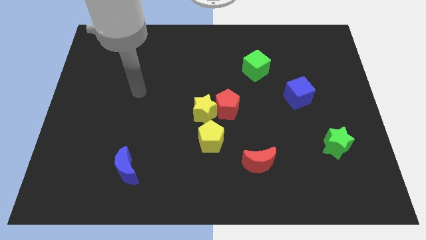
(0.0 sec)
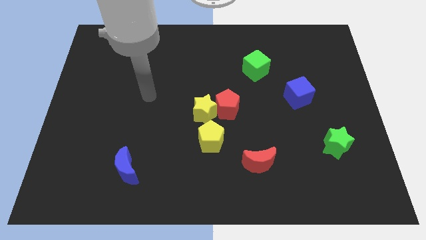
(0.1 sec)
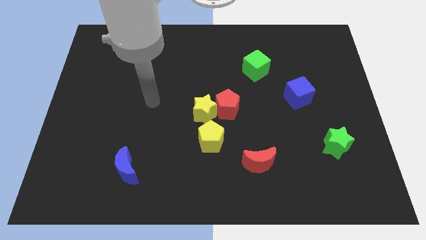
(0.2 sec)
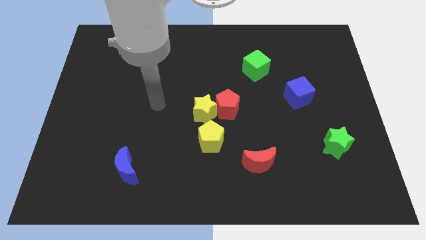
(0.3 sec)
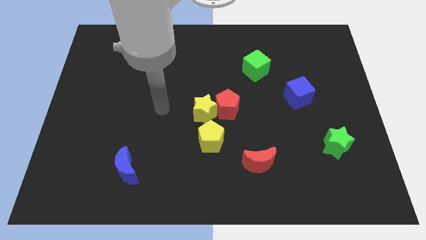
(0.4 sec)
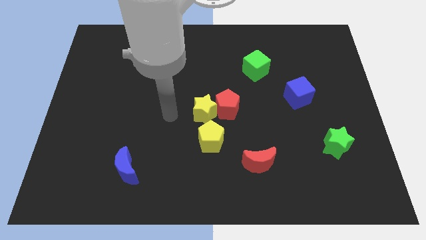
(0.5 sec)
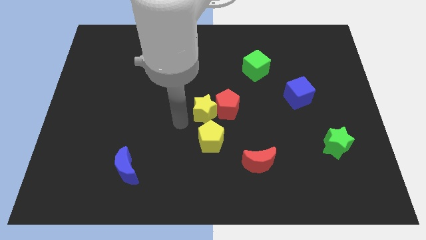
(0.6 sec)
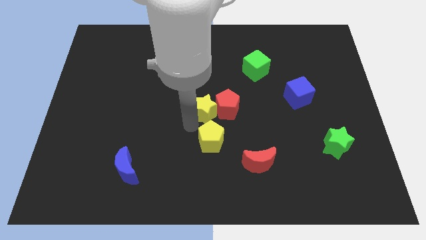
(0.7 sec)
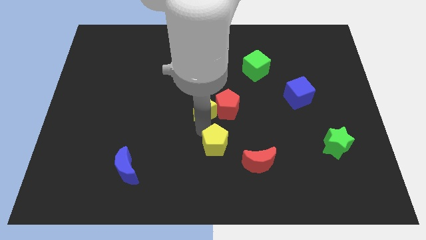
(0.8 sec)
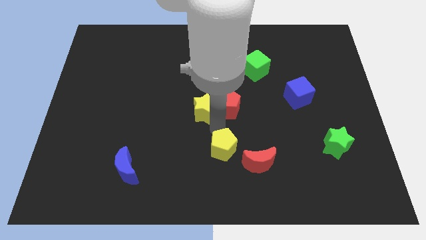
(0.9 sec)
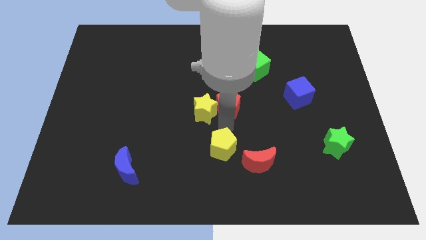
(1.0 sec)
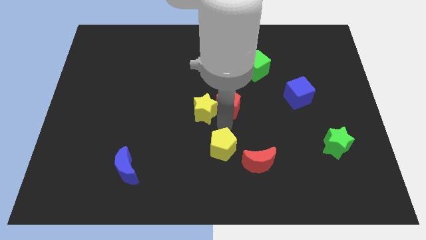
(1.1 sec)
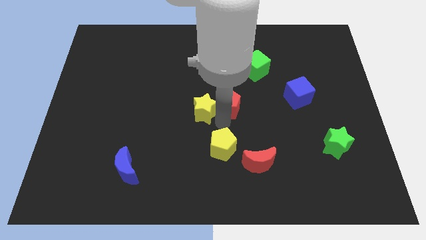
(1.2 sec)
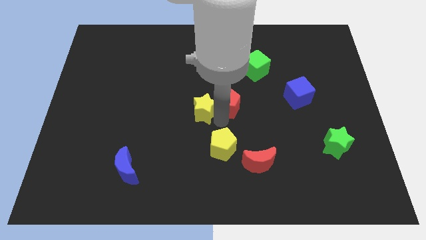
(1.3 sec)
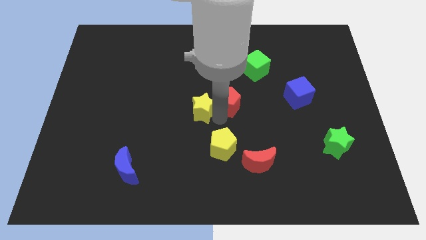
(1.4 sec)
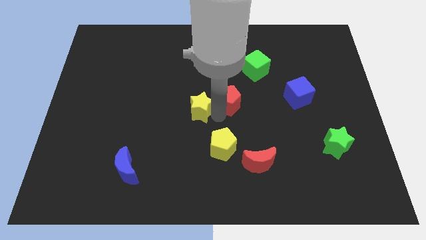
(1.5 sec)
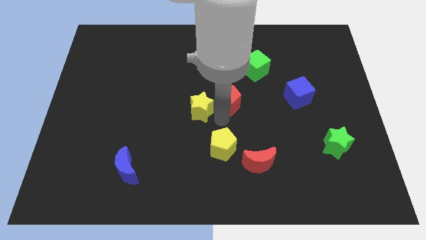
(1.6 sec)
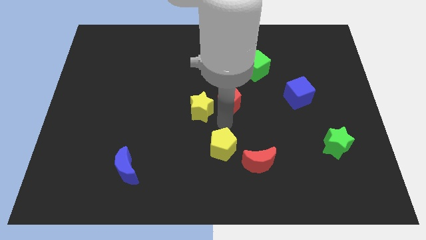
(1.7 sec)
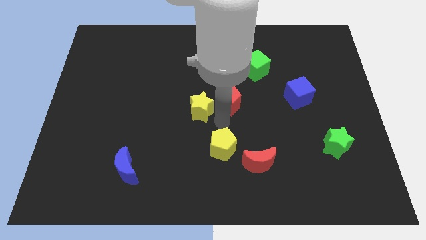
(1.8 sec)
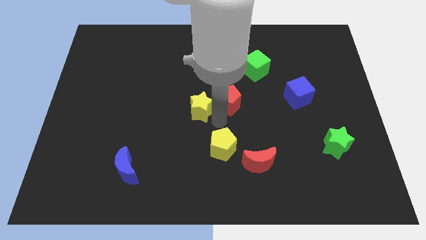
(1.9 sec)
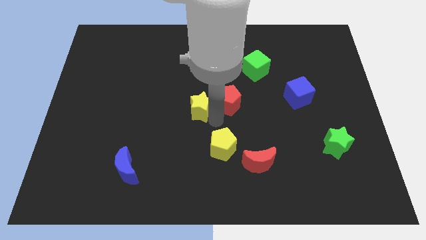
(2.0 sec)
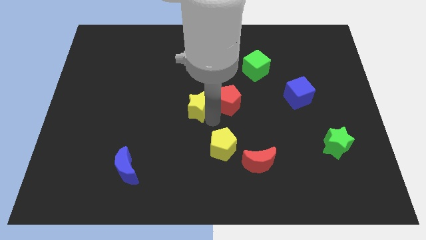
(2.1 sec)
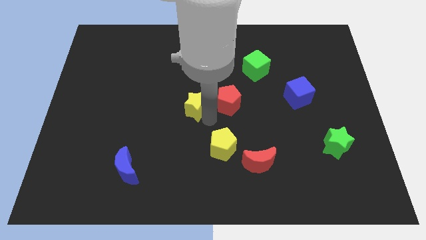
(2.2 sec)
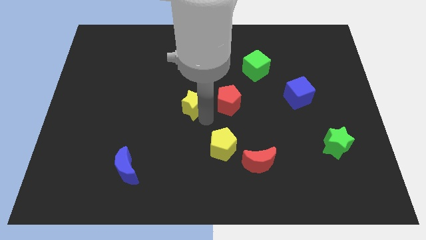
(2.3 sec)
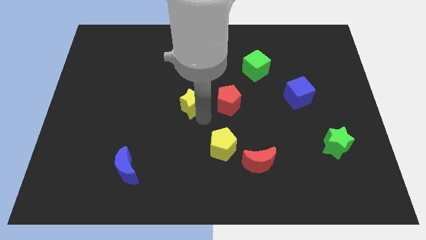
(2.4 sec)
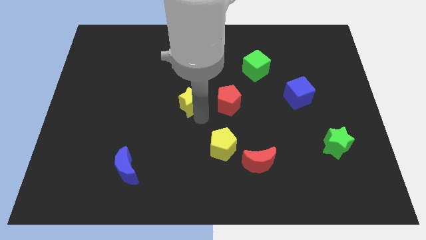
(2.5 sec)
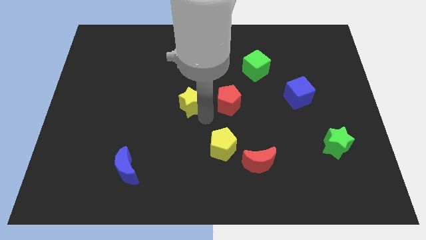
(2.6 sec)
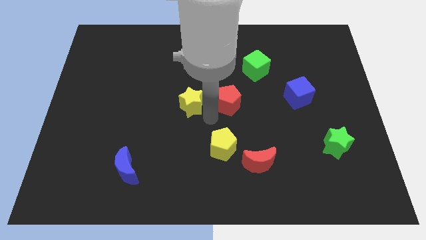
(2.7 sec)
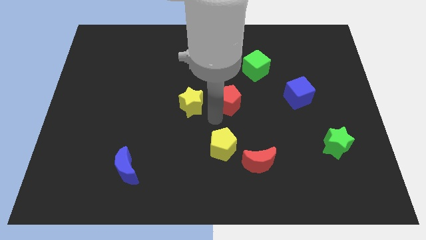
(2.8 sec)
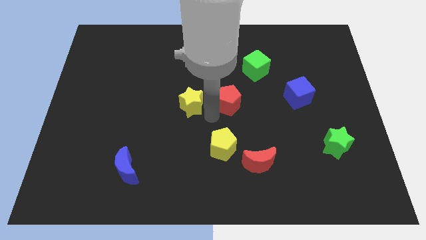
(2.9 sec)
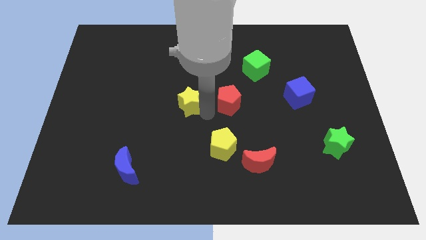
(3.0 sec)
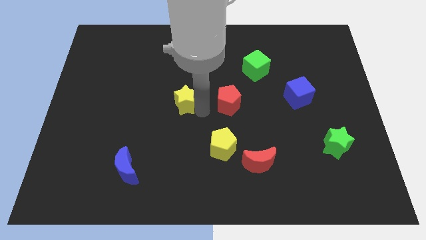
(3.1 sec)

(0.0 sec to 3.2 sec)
separate the yellow star from the red pentagon and yellow pentagon

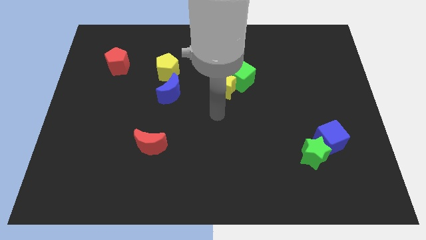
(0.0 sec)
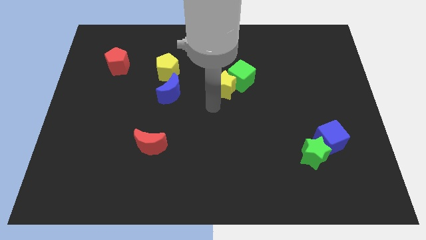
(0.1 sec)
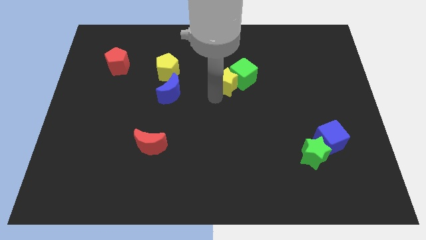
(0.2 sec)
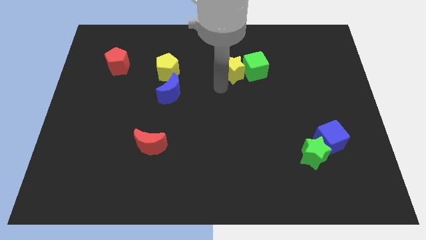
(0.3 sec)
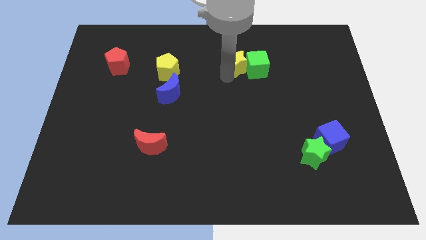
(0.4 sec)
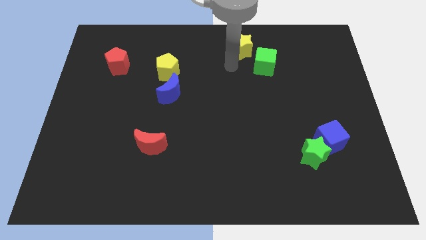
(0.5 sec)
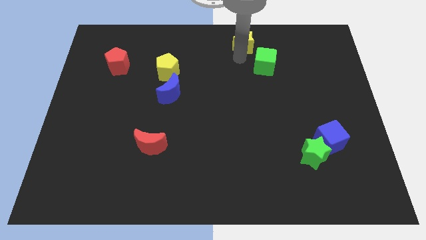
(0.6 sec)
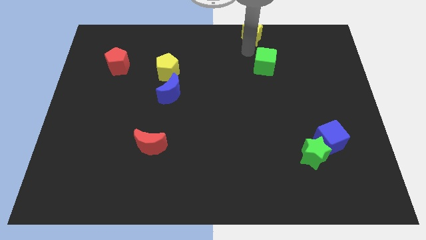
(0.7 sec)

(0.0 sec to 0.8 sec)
move the green cube away from the yellow star

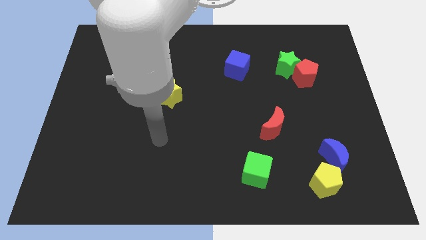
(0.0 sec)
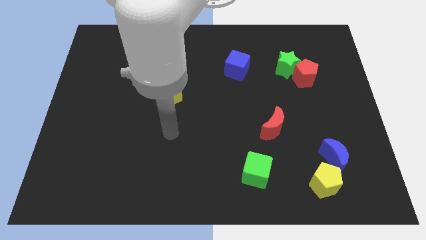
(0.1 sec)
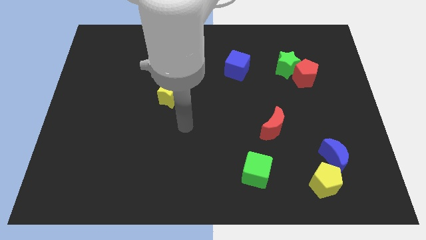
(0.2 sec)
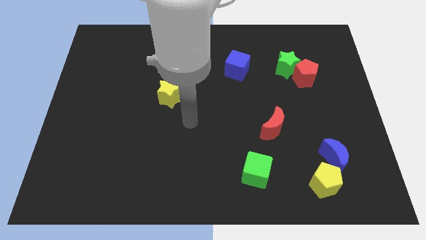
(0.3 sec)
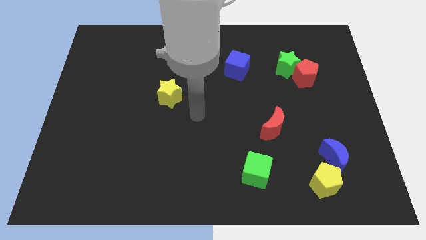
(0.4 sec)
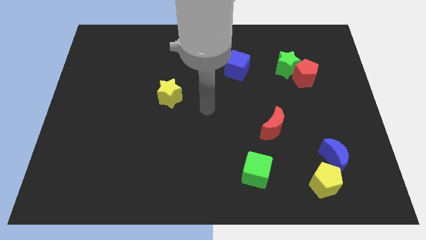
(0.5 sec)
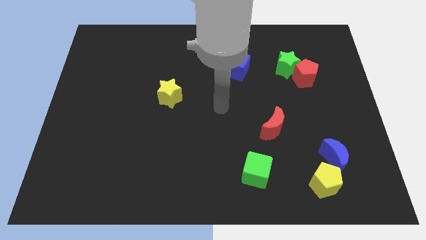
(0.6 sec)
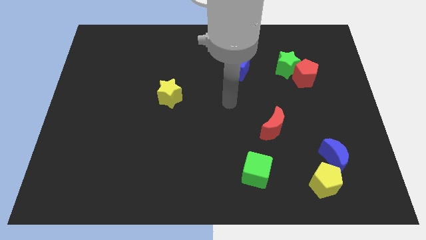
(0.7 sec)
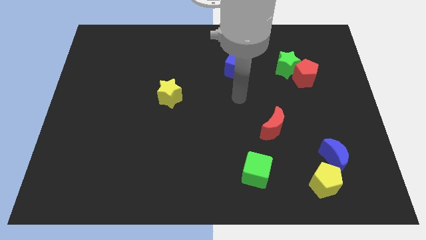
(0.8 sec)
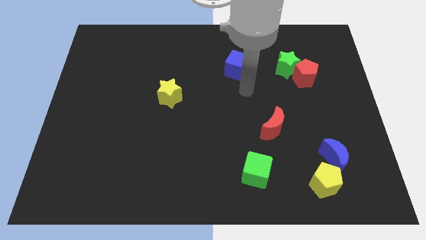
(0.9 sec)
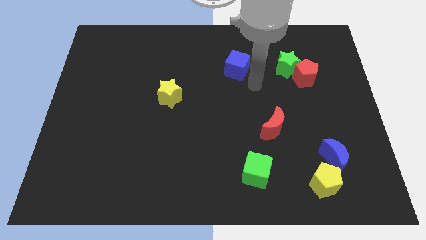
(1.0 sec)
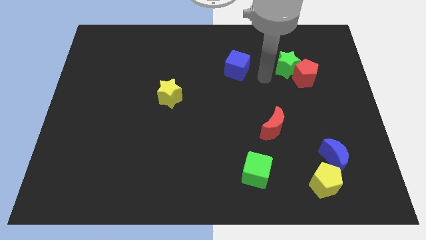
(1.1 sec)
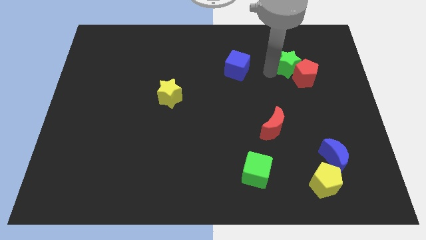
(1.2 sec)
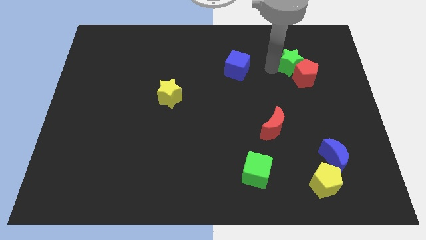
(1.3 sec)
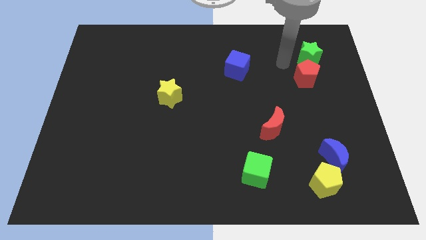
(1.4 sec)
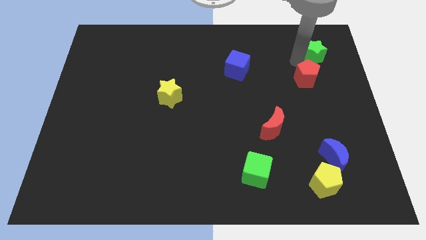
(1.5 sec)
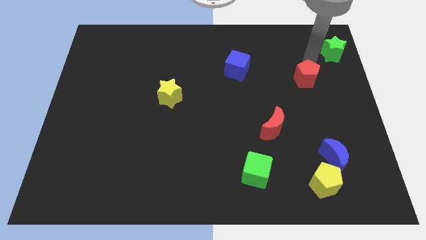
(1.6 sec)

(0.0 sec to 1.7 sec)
pull the red pentagon apart from the green star

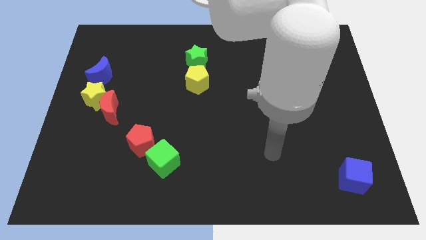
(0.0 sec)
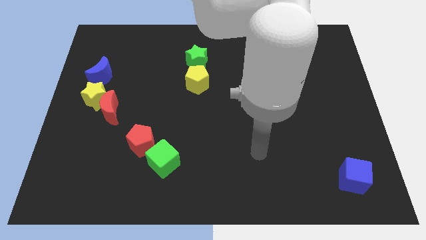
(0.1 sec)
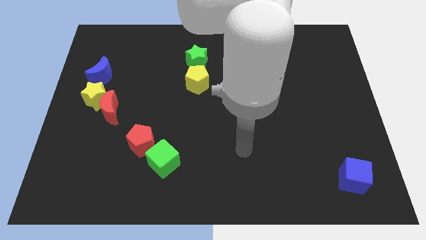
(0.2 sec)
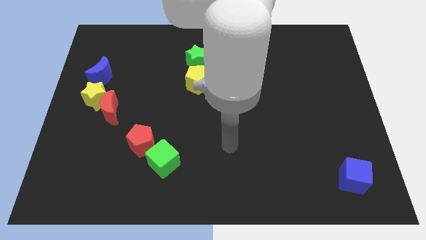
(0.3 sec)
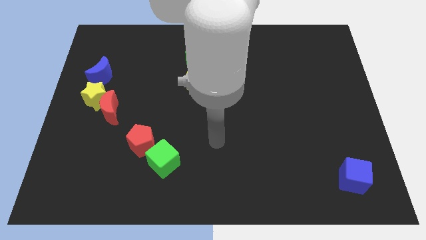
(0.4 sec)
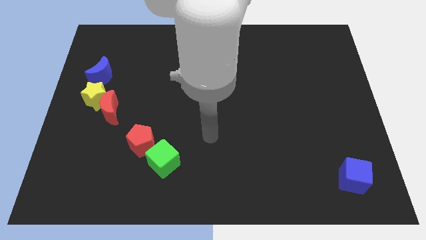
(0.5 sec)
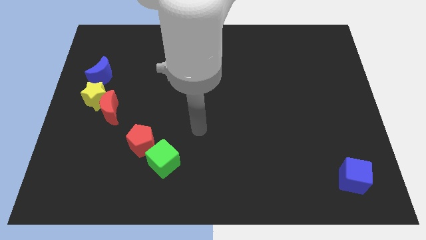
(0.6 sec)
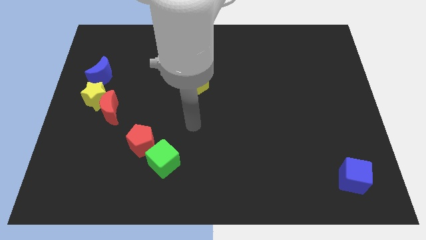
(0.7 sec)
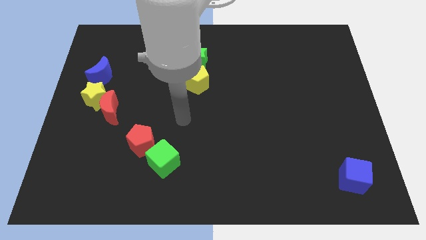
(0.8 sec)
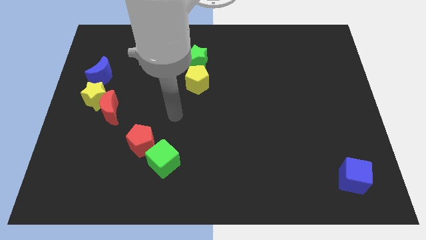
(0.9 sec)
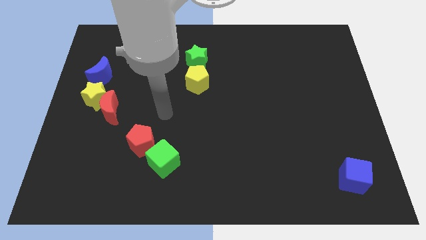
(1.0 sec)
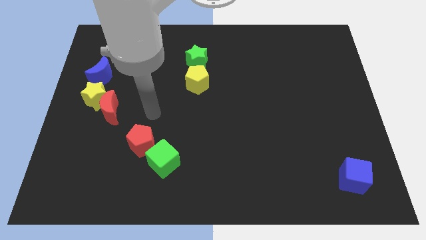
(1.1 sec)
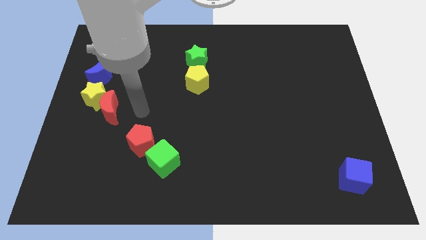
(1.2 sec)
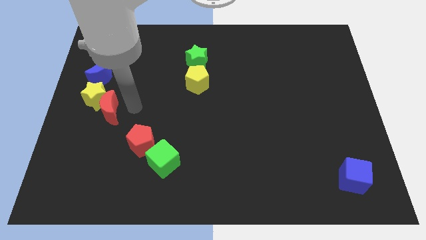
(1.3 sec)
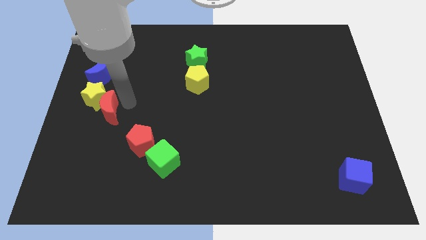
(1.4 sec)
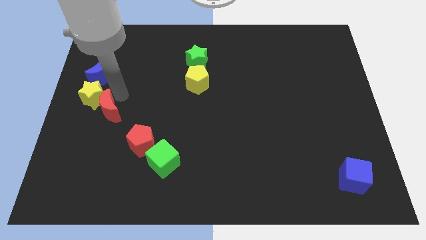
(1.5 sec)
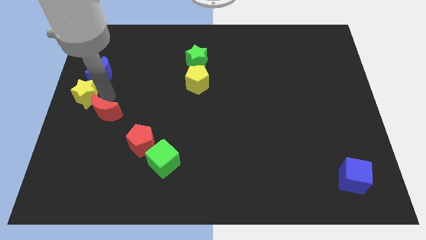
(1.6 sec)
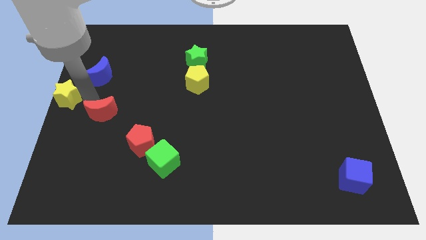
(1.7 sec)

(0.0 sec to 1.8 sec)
separate the red moon from the yellow star

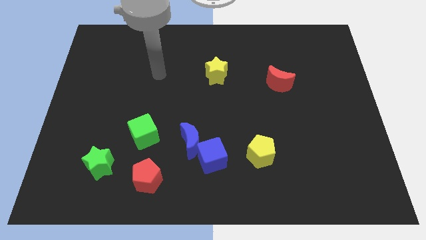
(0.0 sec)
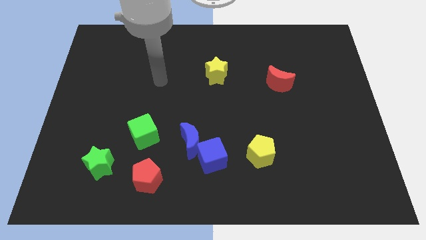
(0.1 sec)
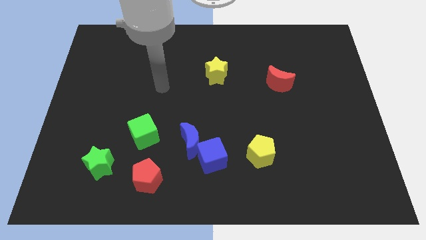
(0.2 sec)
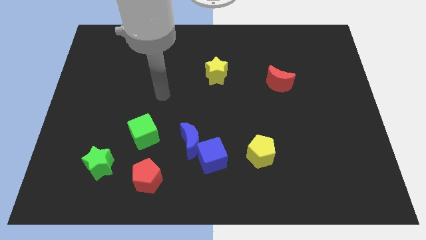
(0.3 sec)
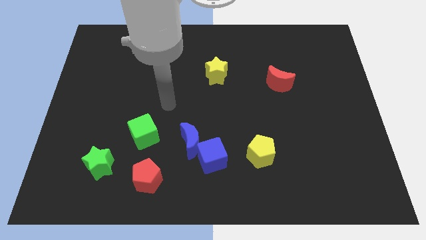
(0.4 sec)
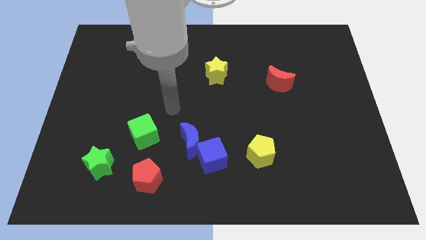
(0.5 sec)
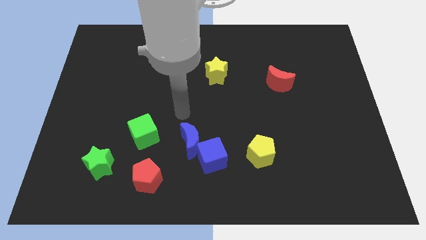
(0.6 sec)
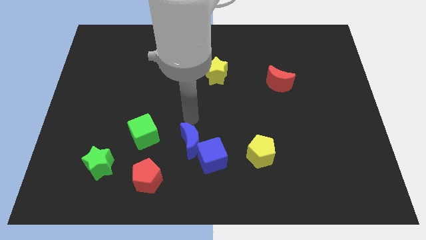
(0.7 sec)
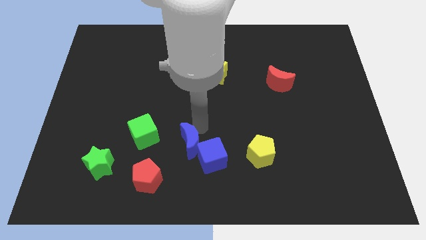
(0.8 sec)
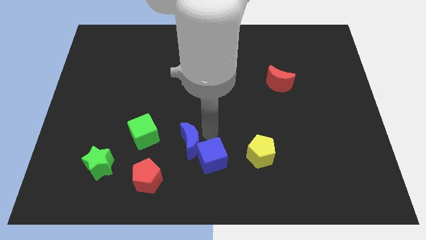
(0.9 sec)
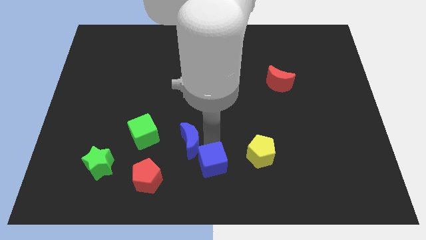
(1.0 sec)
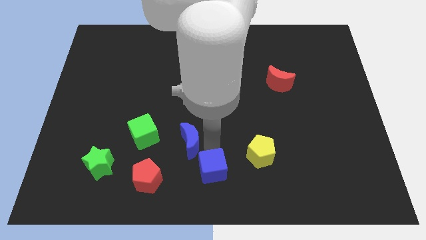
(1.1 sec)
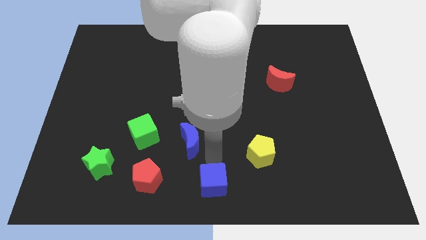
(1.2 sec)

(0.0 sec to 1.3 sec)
move the blue moon away from the blue cube

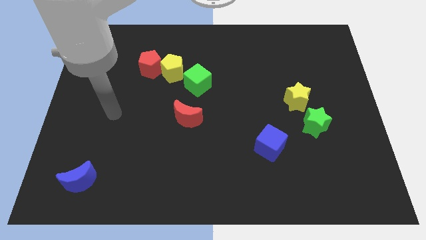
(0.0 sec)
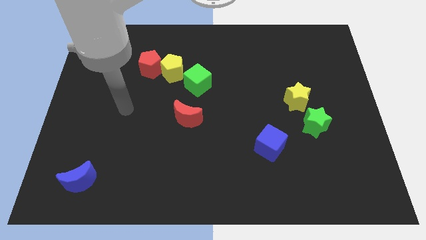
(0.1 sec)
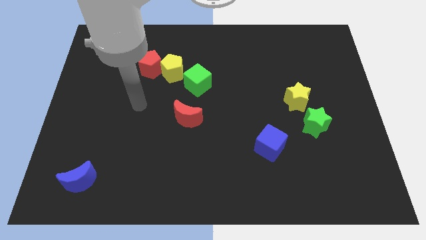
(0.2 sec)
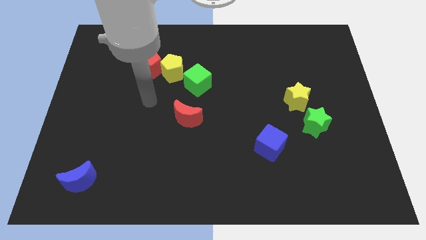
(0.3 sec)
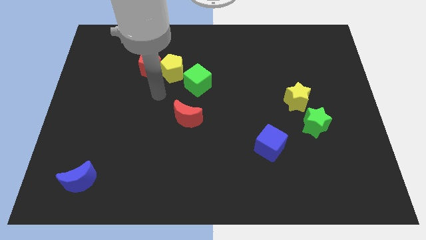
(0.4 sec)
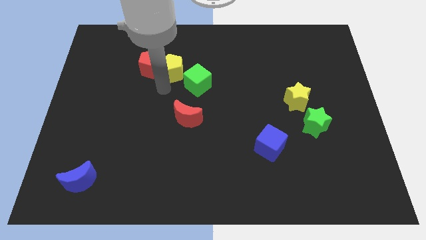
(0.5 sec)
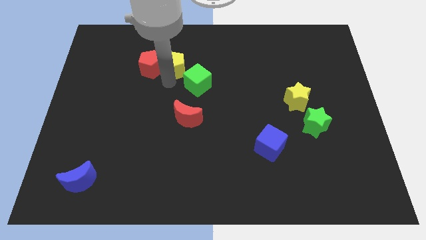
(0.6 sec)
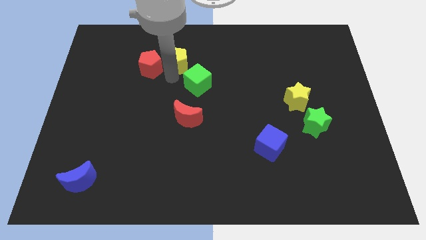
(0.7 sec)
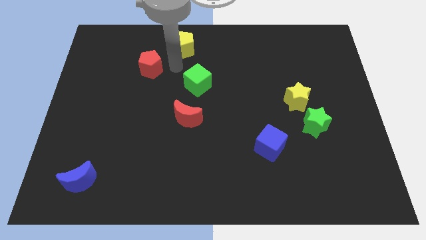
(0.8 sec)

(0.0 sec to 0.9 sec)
separate the red pentagon from the yellow pentagon
